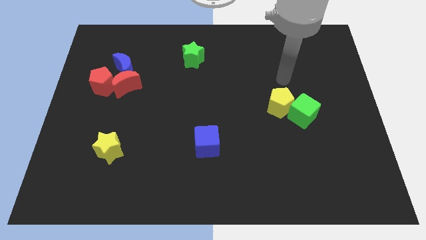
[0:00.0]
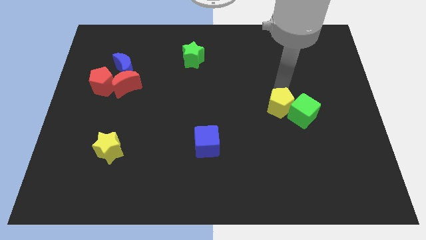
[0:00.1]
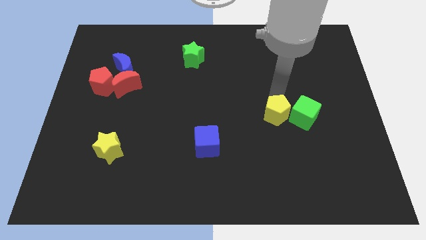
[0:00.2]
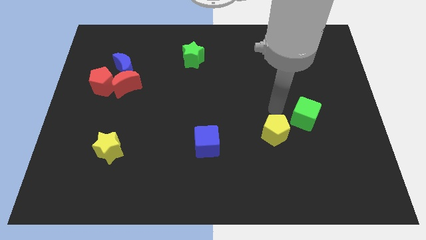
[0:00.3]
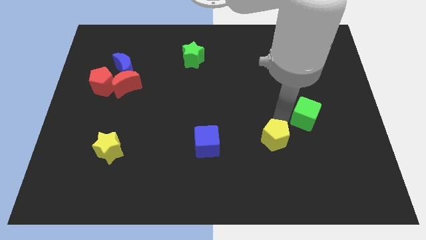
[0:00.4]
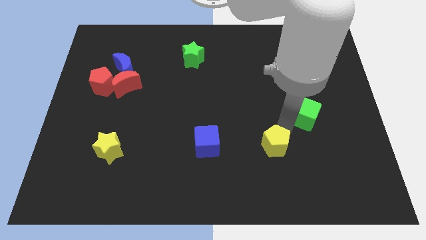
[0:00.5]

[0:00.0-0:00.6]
pull the green cube apart from the yellow pentagon

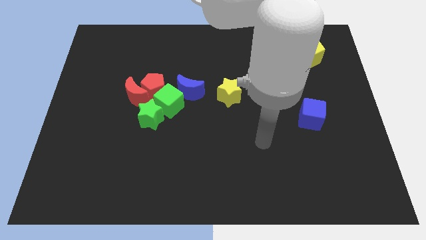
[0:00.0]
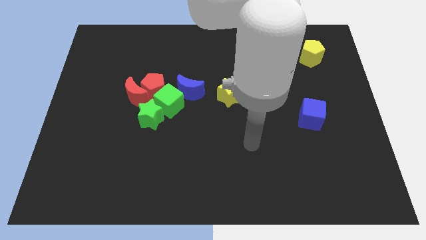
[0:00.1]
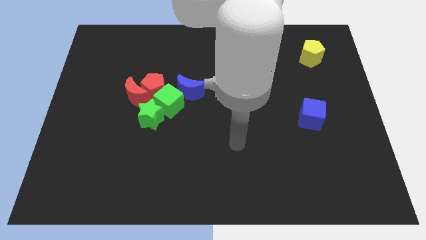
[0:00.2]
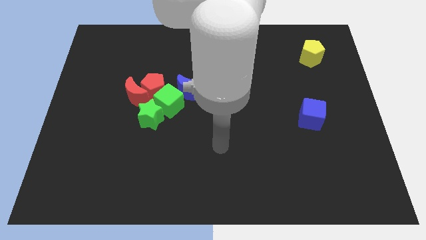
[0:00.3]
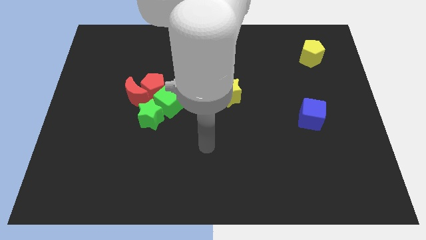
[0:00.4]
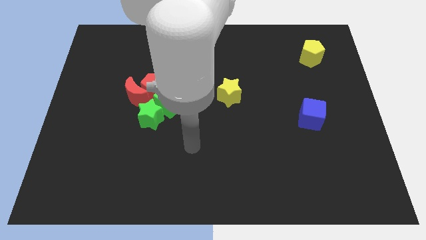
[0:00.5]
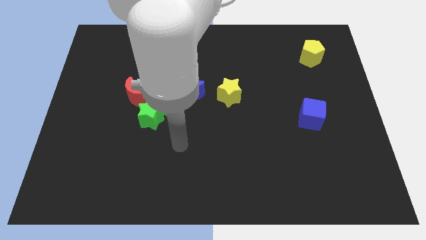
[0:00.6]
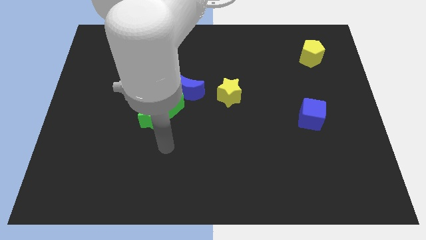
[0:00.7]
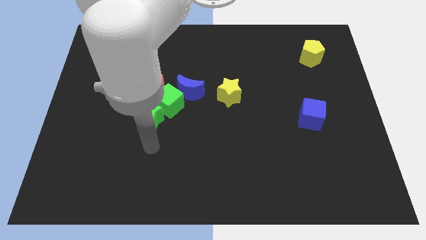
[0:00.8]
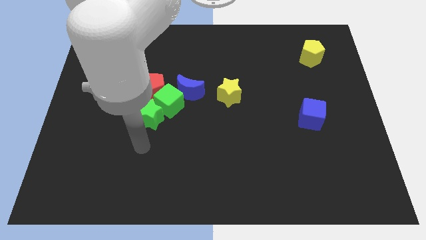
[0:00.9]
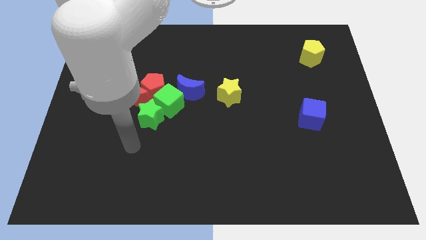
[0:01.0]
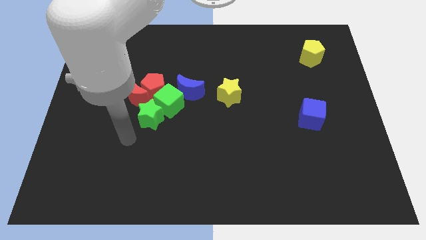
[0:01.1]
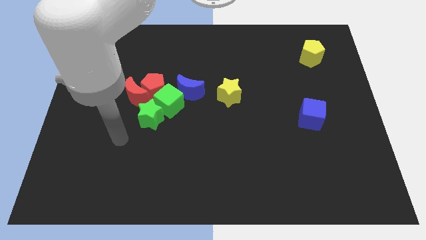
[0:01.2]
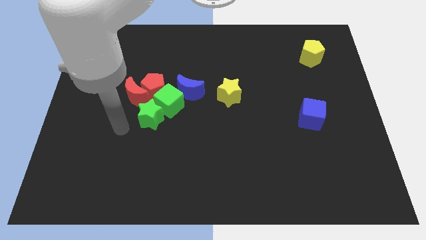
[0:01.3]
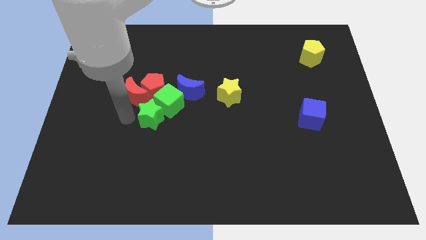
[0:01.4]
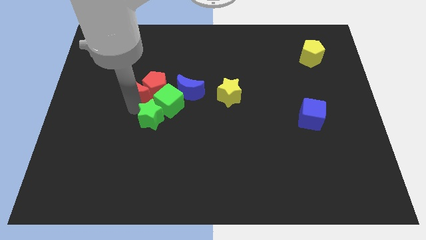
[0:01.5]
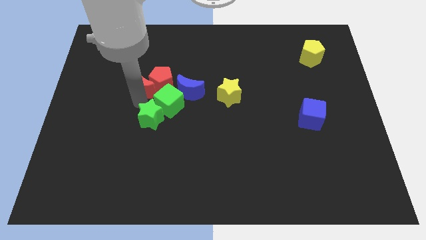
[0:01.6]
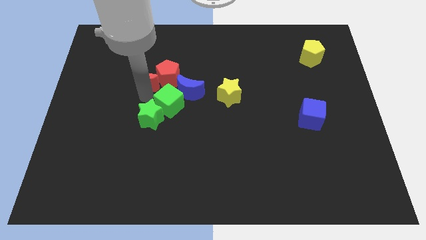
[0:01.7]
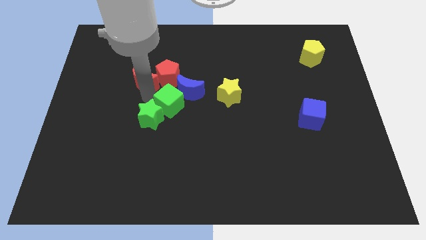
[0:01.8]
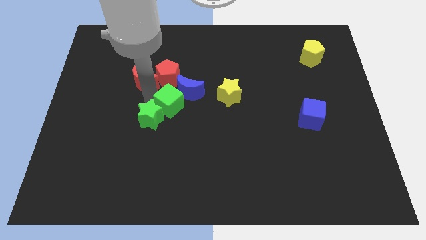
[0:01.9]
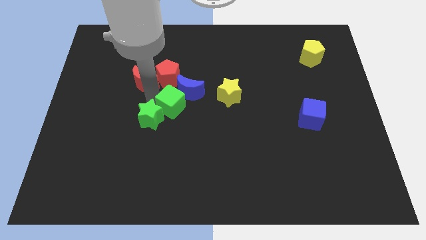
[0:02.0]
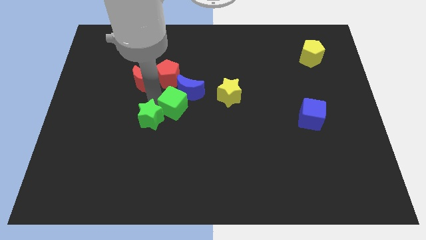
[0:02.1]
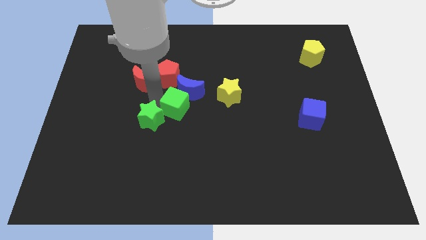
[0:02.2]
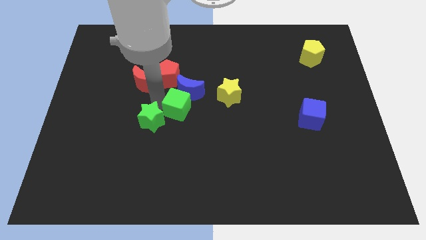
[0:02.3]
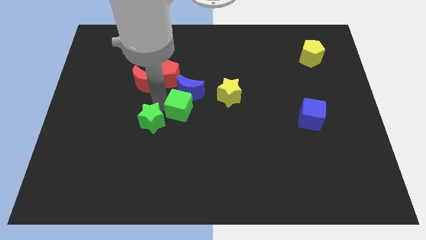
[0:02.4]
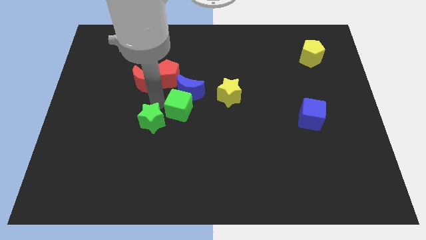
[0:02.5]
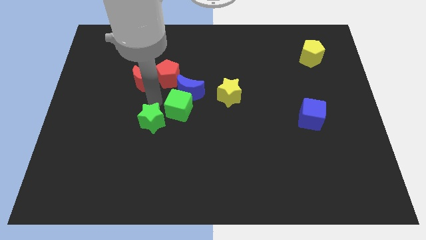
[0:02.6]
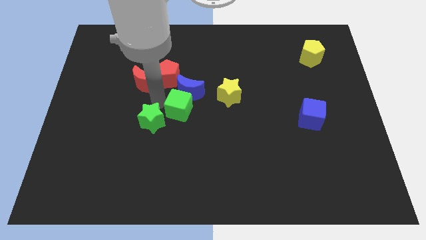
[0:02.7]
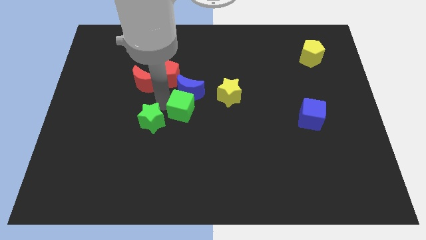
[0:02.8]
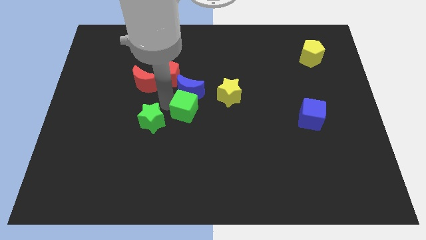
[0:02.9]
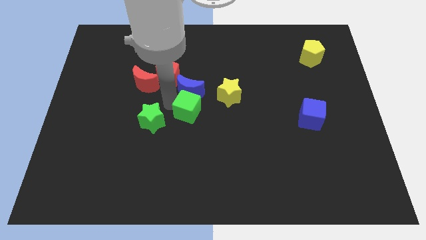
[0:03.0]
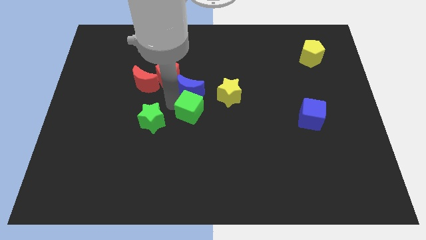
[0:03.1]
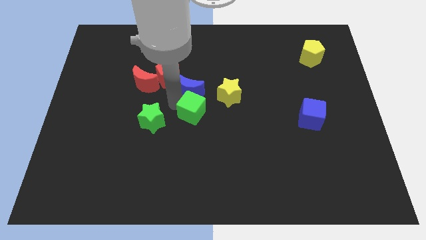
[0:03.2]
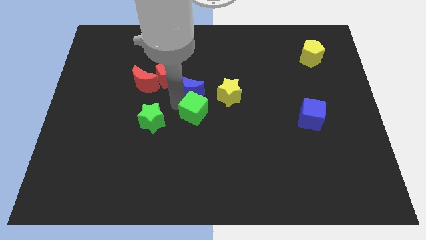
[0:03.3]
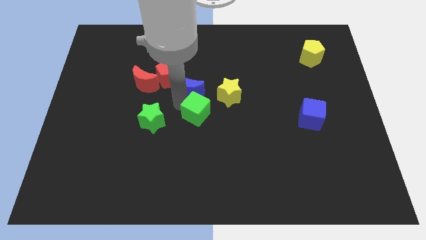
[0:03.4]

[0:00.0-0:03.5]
separate the green cube from the group

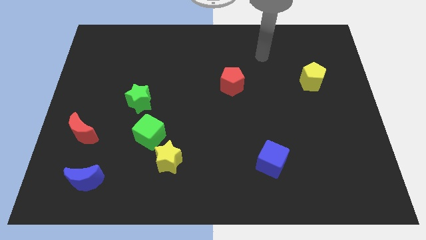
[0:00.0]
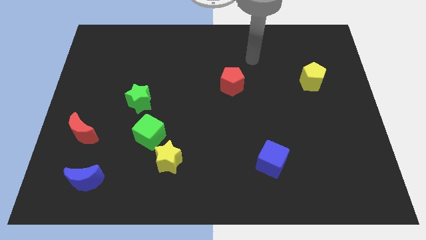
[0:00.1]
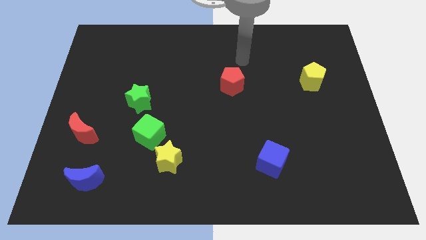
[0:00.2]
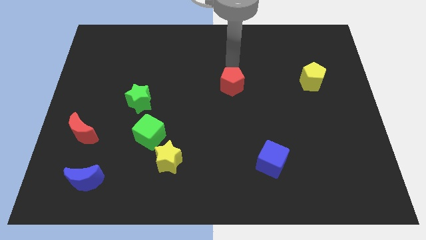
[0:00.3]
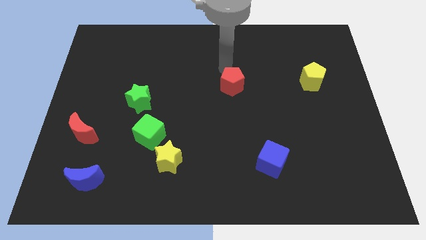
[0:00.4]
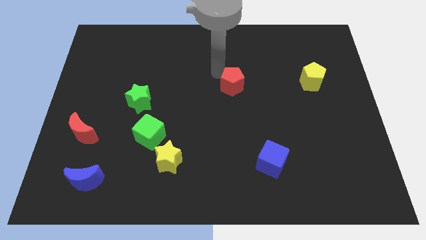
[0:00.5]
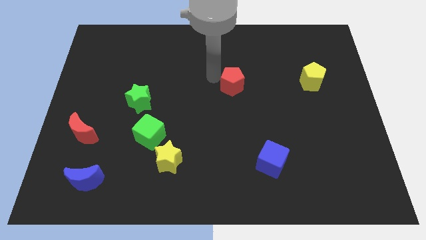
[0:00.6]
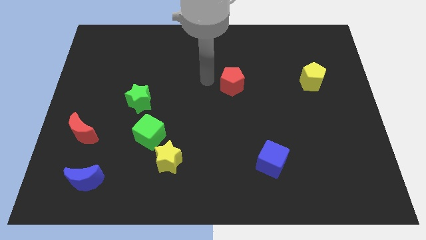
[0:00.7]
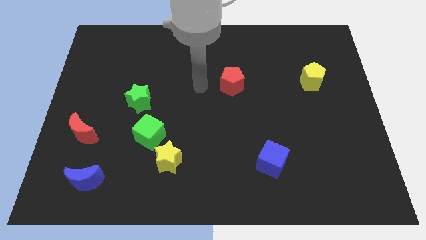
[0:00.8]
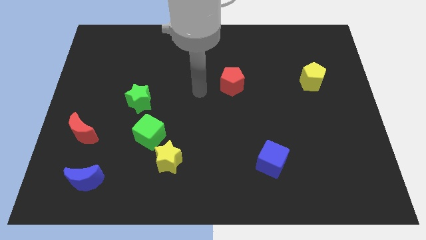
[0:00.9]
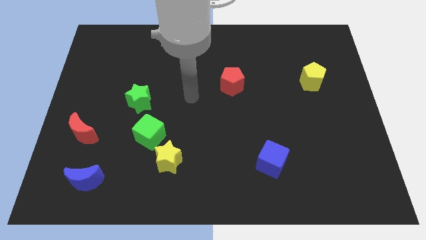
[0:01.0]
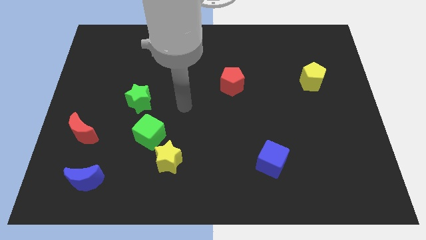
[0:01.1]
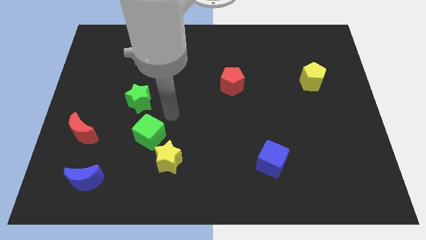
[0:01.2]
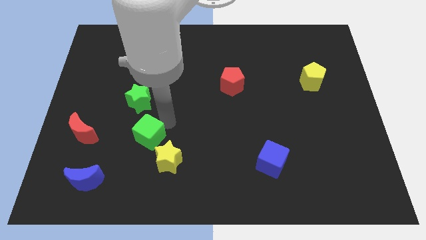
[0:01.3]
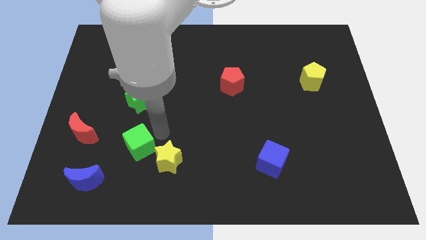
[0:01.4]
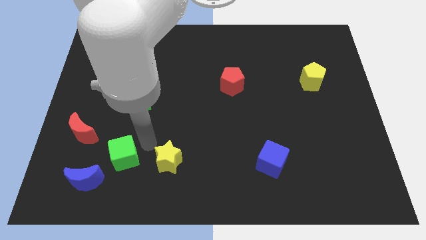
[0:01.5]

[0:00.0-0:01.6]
pull the yellow star apart from the green cube

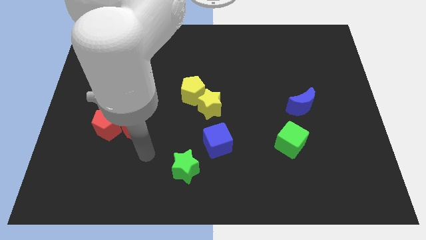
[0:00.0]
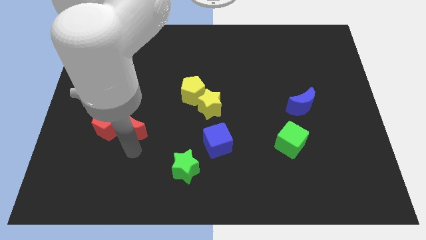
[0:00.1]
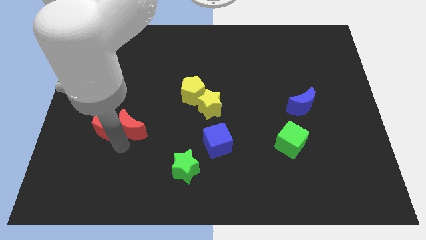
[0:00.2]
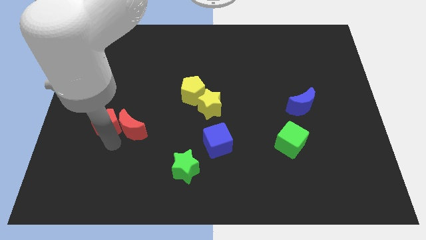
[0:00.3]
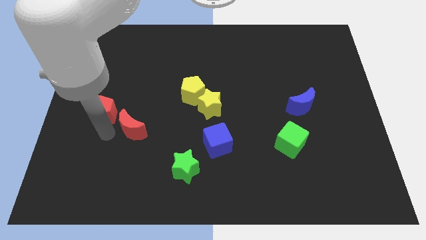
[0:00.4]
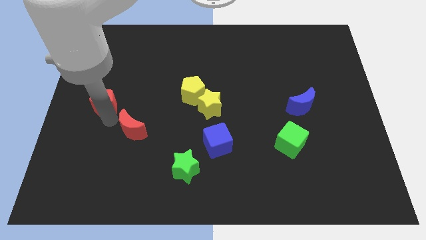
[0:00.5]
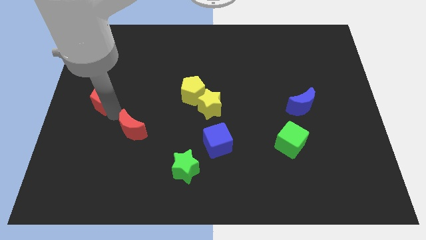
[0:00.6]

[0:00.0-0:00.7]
separate the red moon from the red pentagon

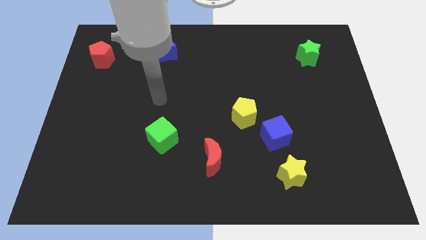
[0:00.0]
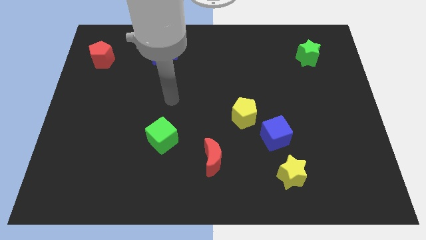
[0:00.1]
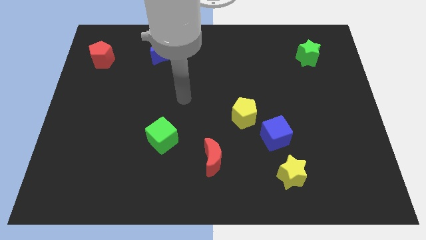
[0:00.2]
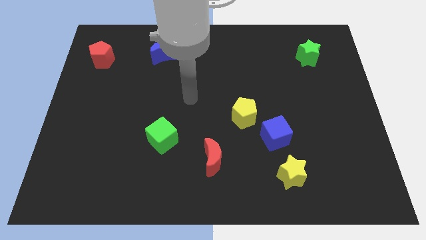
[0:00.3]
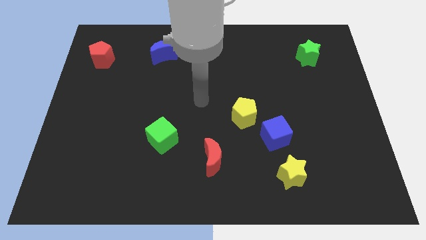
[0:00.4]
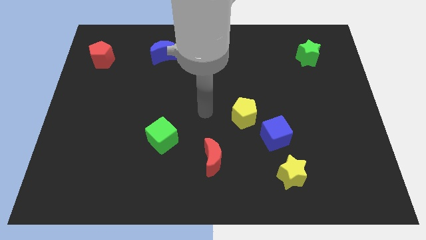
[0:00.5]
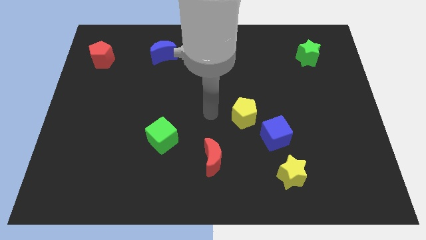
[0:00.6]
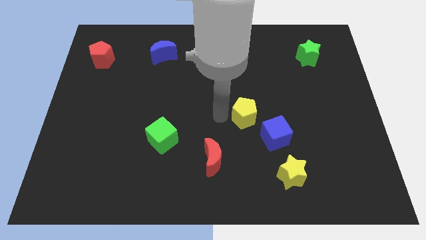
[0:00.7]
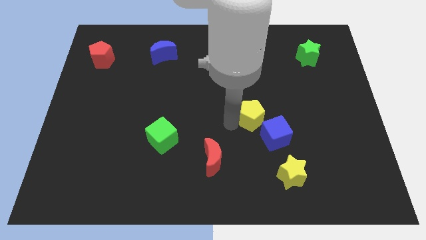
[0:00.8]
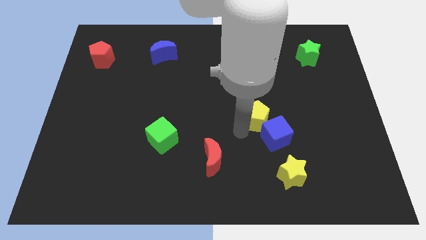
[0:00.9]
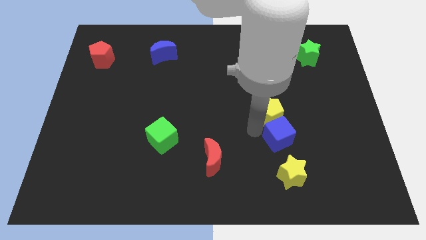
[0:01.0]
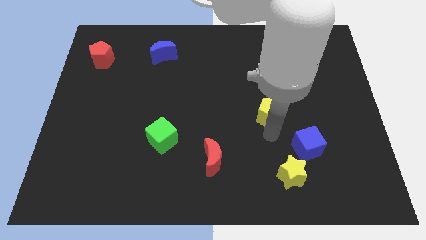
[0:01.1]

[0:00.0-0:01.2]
separate the yellow pentagon from the blue cube

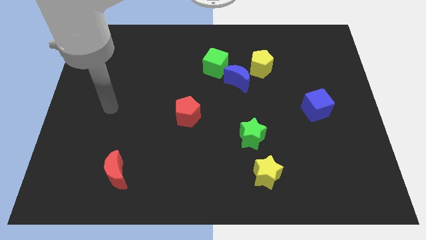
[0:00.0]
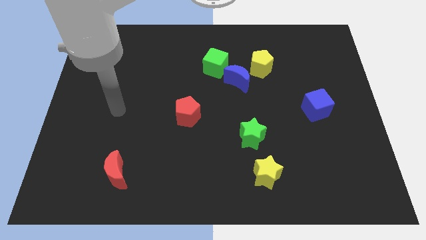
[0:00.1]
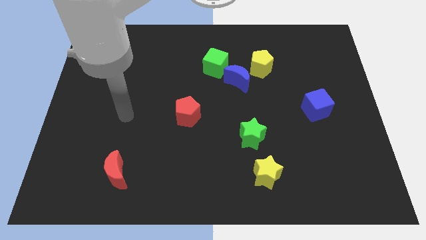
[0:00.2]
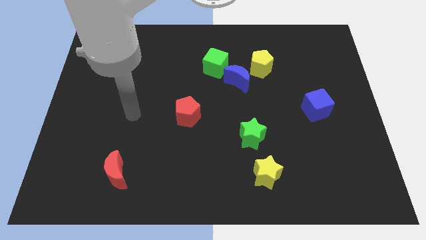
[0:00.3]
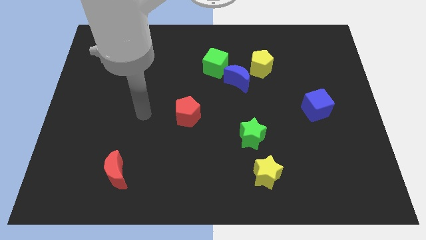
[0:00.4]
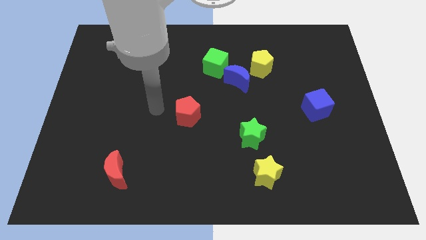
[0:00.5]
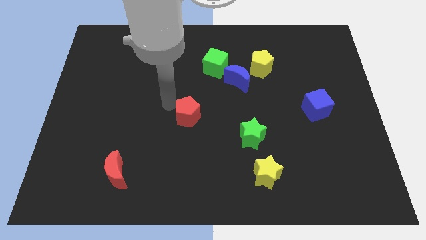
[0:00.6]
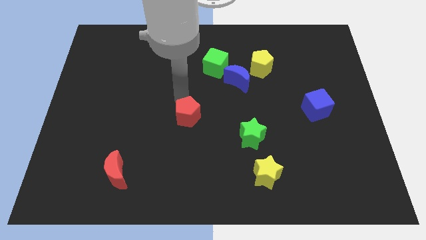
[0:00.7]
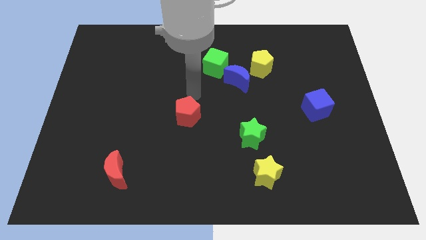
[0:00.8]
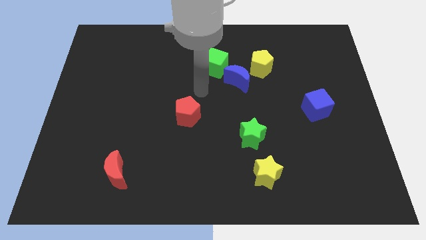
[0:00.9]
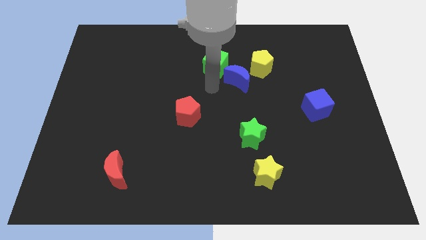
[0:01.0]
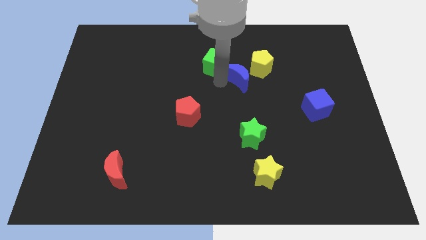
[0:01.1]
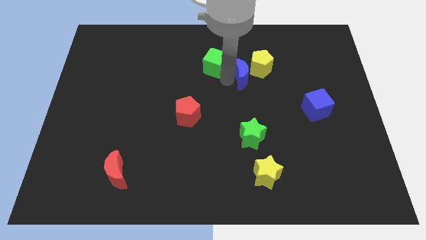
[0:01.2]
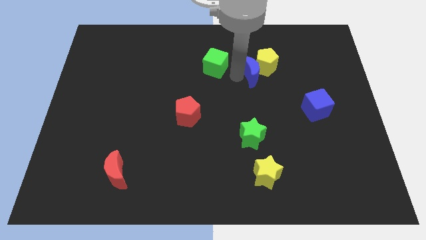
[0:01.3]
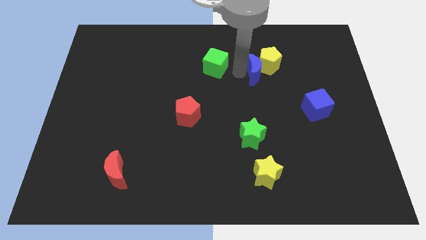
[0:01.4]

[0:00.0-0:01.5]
pull the green cube apart from the blue moon

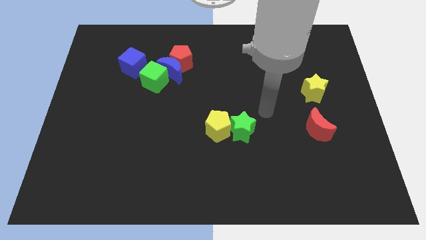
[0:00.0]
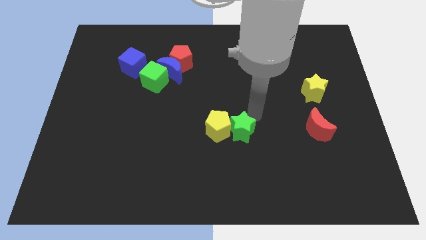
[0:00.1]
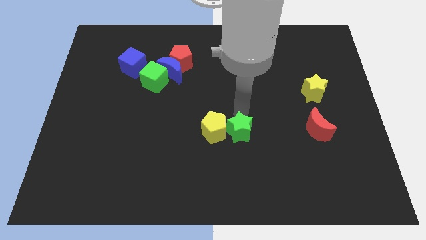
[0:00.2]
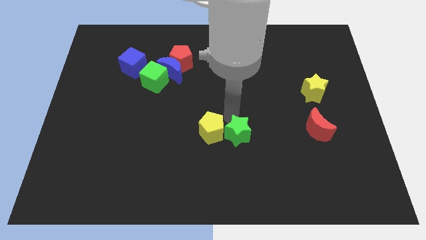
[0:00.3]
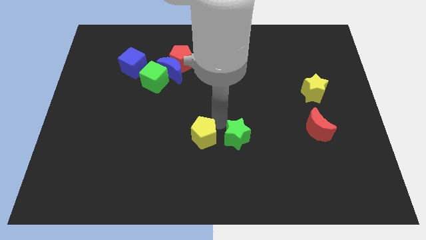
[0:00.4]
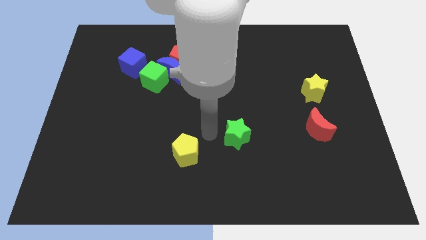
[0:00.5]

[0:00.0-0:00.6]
move the green star away from the yellow pentagon
